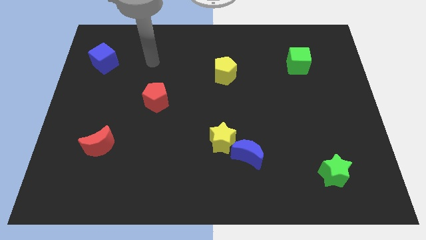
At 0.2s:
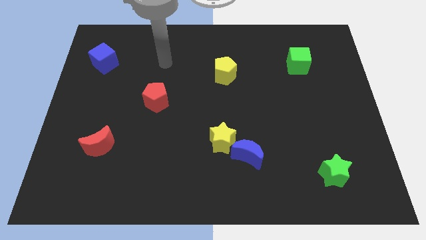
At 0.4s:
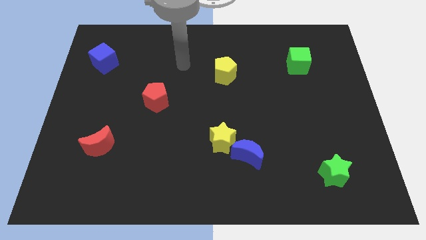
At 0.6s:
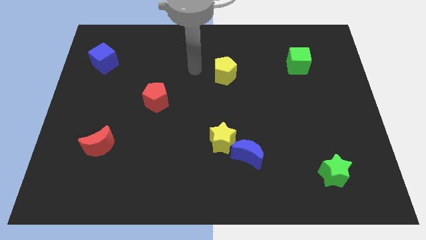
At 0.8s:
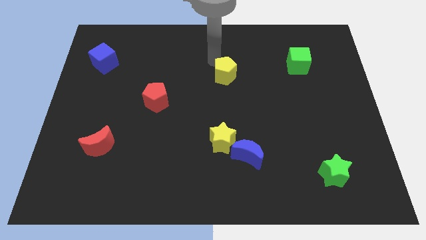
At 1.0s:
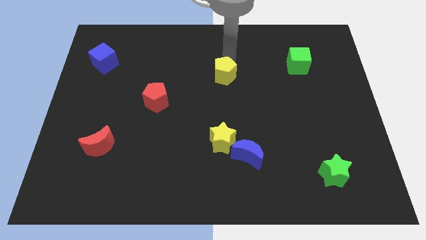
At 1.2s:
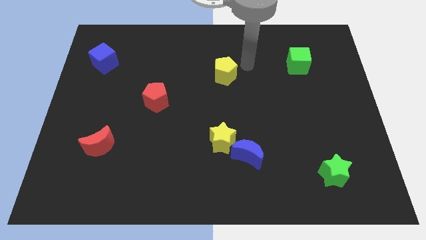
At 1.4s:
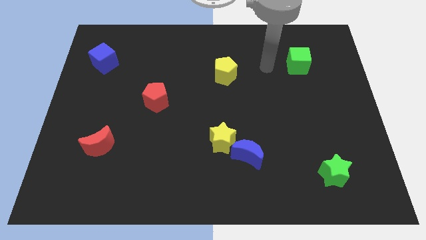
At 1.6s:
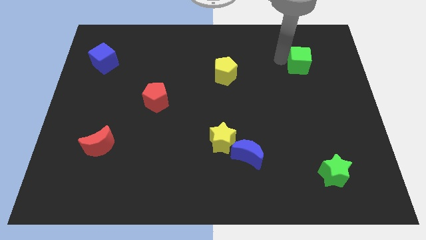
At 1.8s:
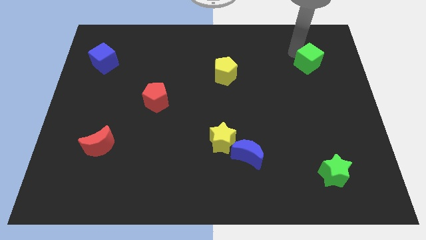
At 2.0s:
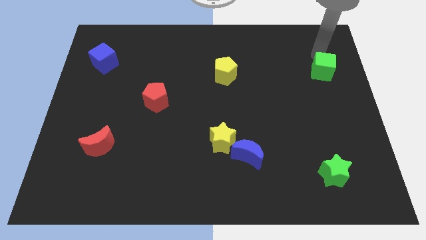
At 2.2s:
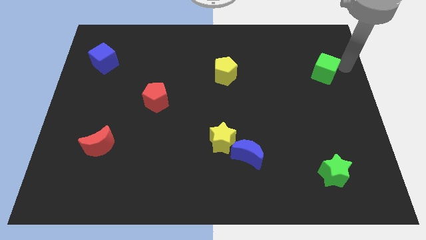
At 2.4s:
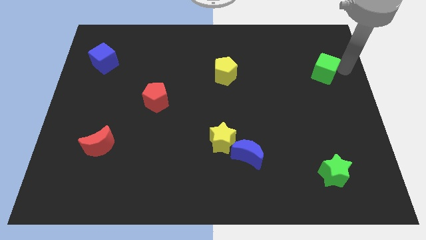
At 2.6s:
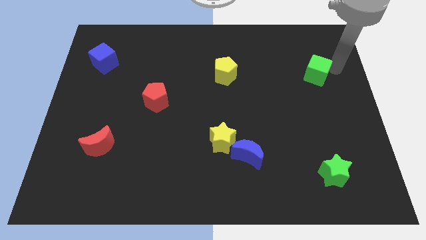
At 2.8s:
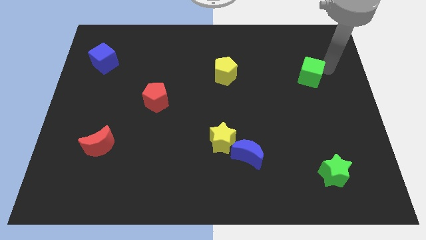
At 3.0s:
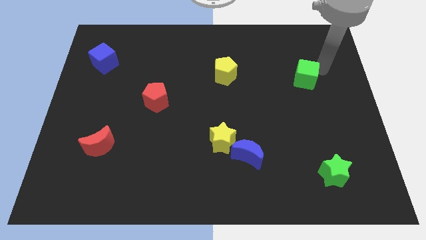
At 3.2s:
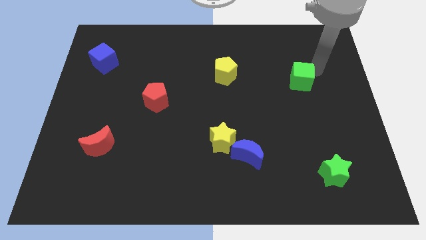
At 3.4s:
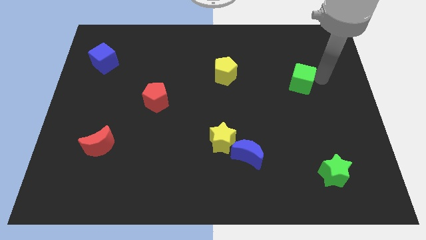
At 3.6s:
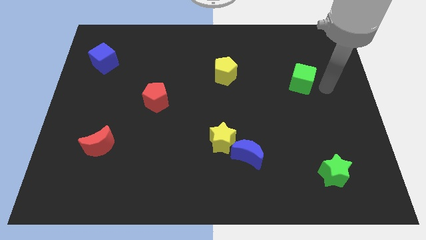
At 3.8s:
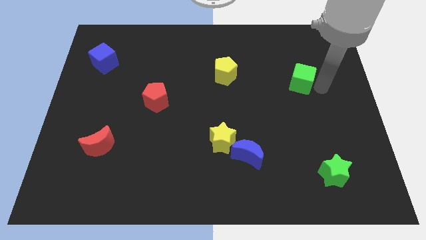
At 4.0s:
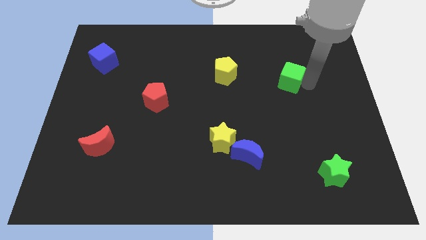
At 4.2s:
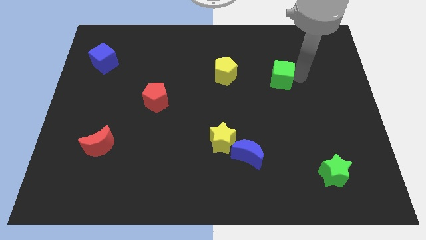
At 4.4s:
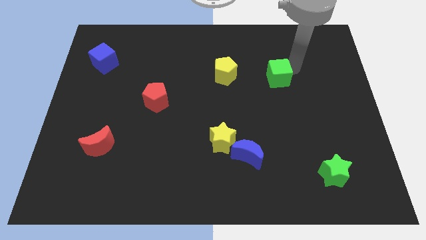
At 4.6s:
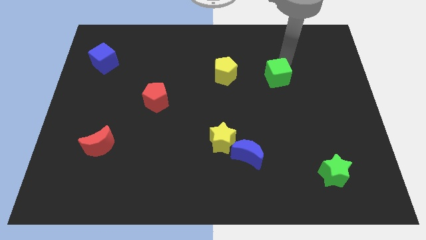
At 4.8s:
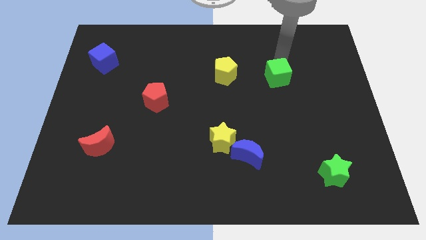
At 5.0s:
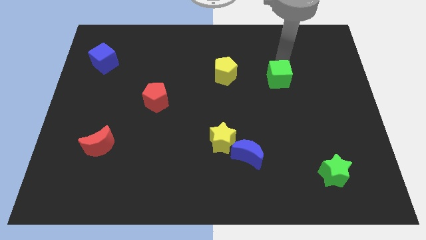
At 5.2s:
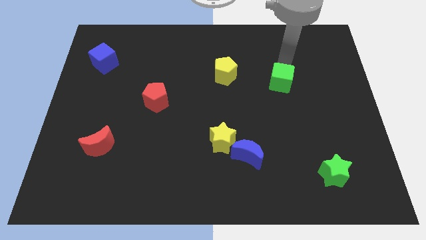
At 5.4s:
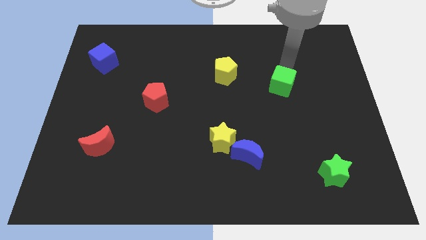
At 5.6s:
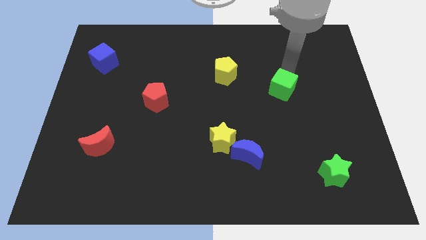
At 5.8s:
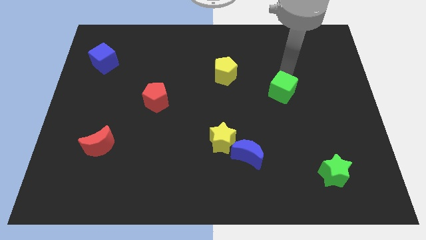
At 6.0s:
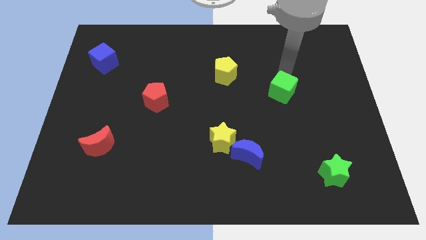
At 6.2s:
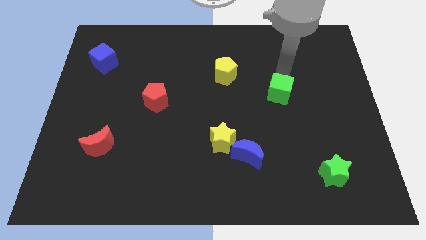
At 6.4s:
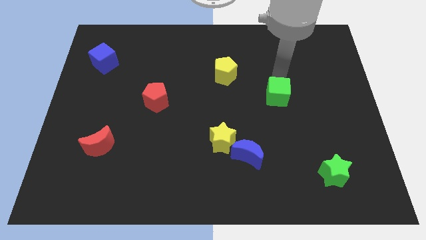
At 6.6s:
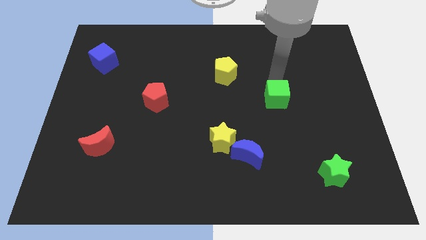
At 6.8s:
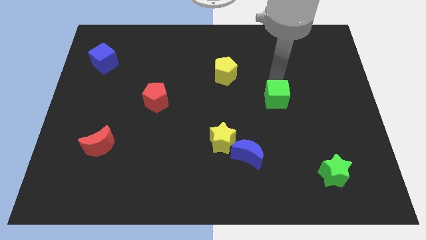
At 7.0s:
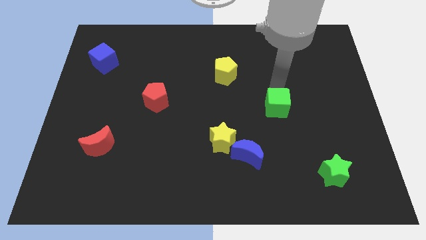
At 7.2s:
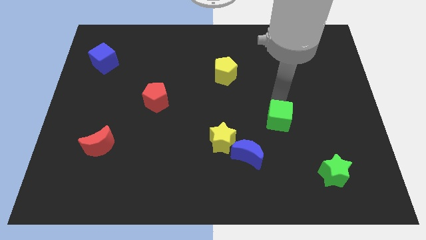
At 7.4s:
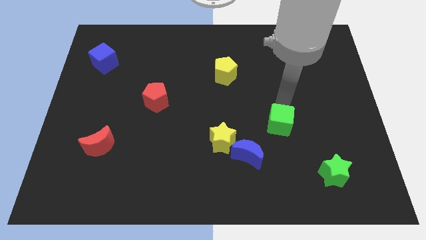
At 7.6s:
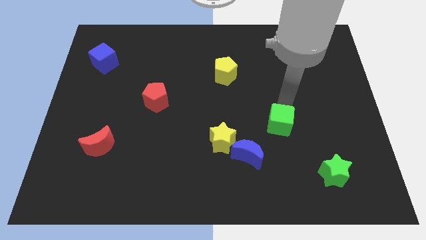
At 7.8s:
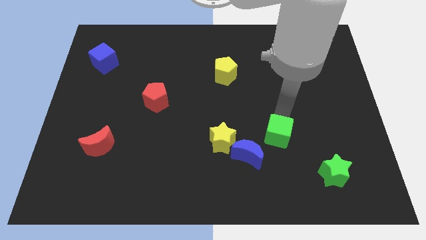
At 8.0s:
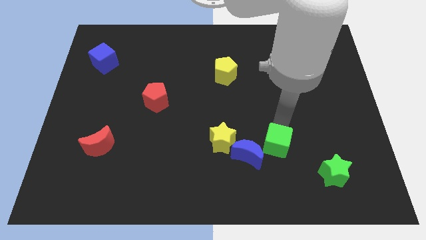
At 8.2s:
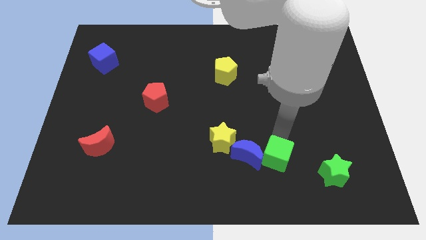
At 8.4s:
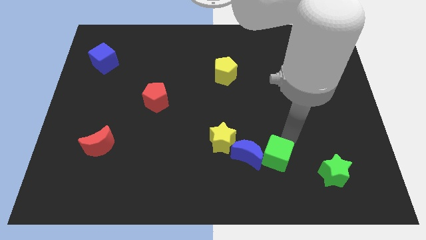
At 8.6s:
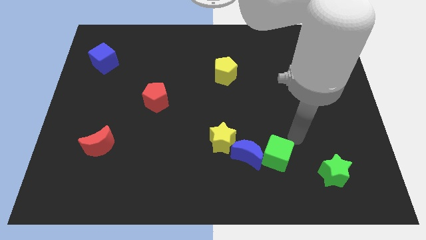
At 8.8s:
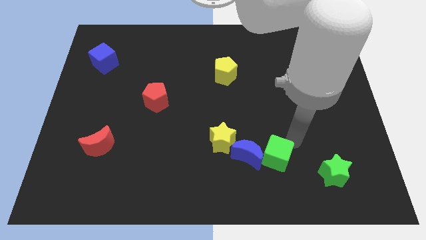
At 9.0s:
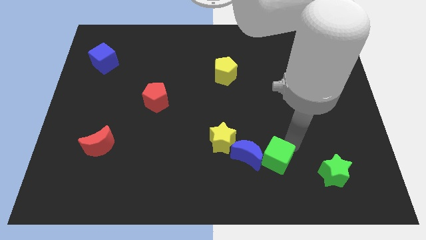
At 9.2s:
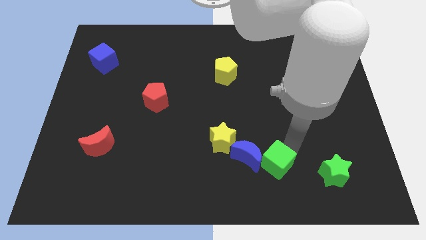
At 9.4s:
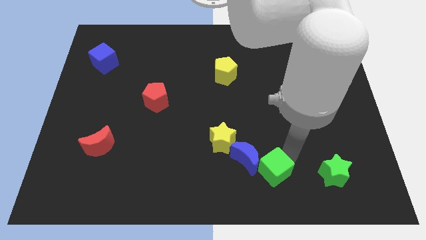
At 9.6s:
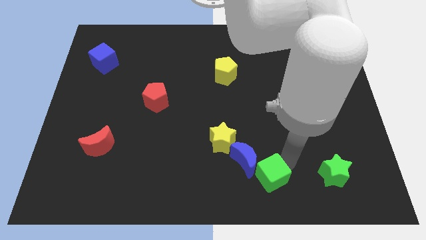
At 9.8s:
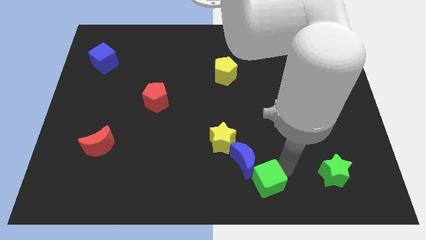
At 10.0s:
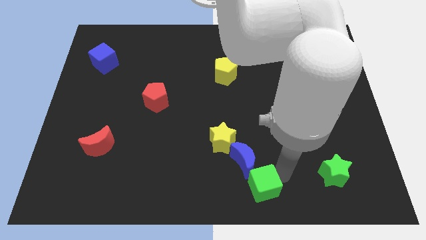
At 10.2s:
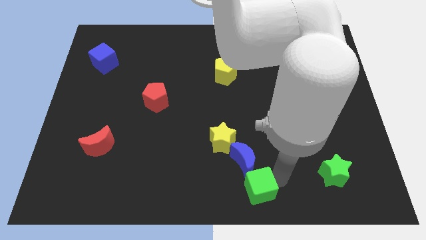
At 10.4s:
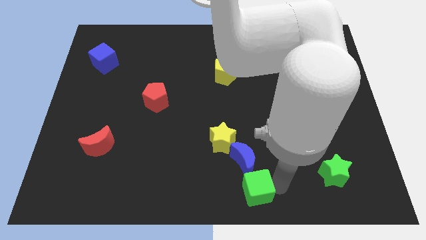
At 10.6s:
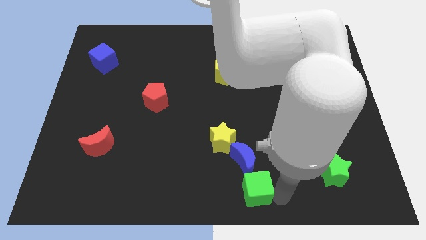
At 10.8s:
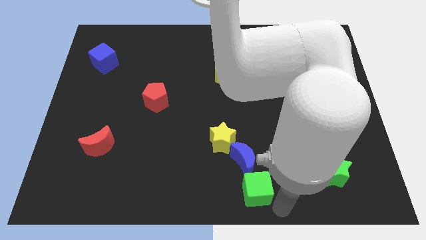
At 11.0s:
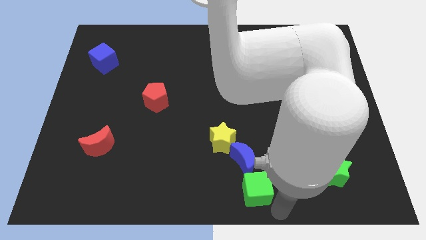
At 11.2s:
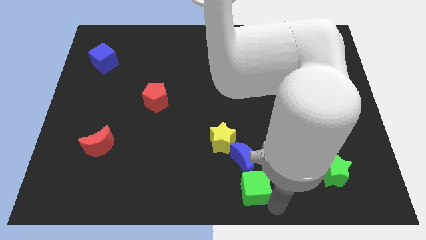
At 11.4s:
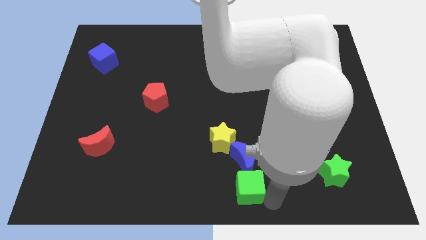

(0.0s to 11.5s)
move the green cube to the bottom left of the blue moon

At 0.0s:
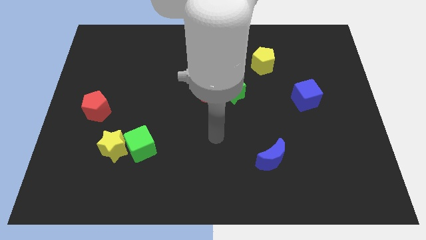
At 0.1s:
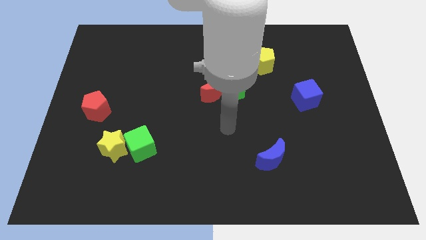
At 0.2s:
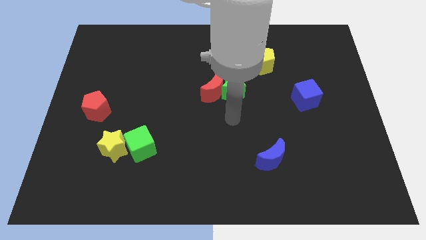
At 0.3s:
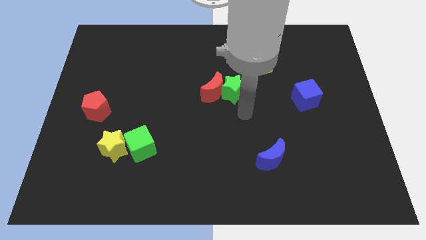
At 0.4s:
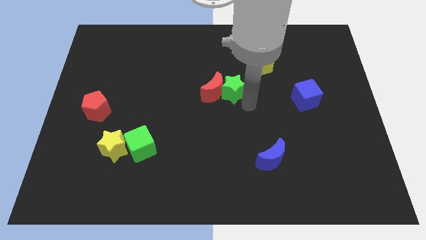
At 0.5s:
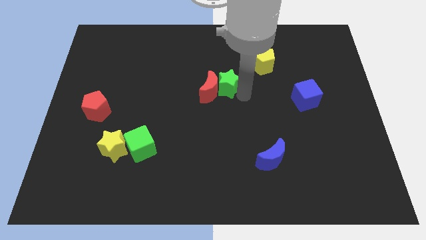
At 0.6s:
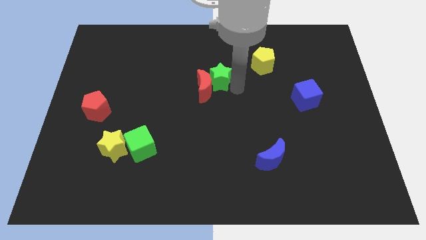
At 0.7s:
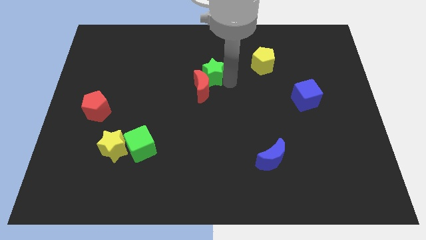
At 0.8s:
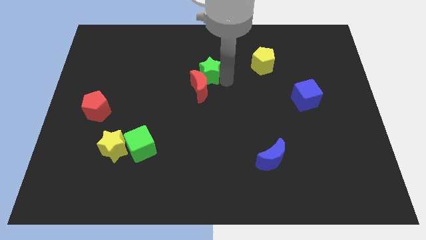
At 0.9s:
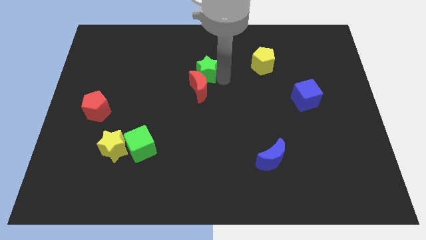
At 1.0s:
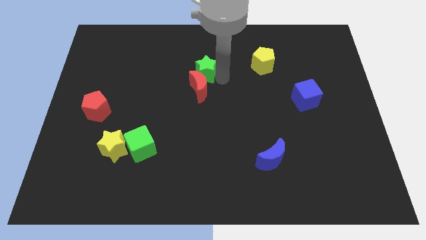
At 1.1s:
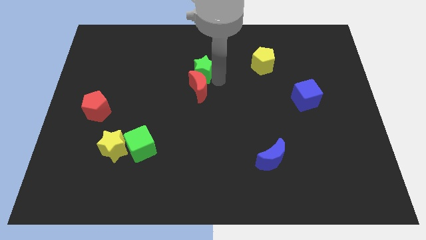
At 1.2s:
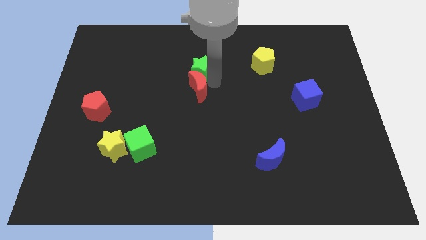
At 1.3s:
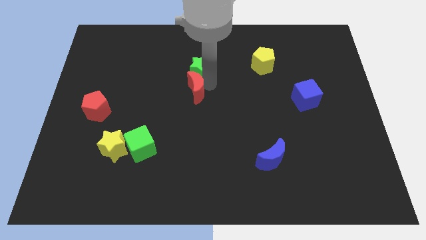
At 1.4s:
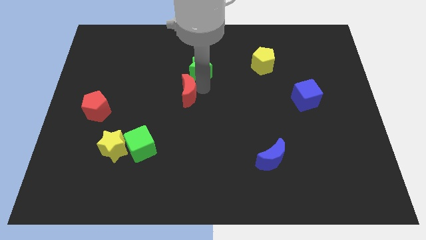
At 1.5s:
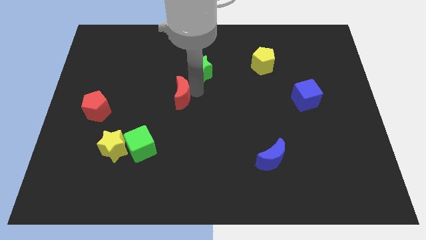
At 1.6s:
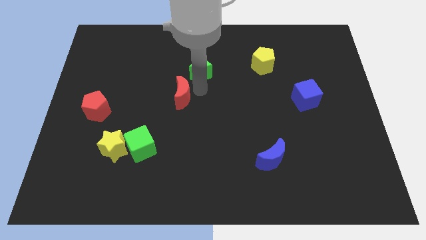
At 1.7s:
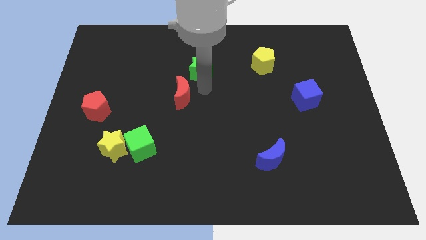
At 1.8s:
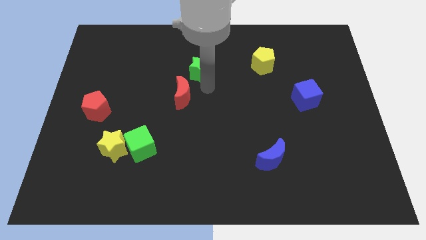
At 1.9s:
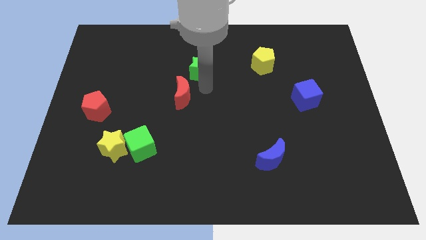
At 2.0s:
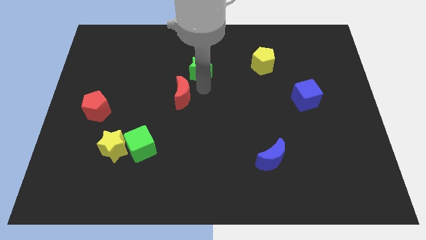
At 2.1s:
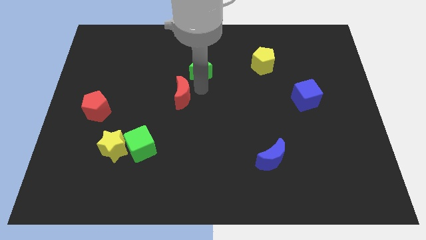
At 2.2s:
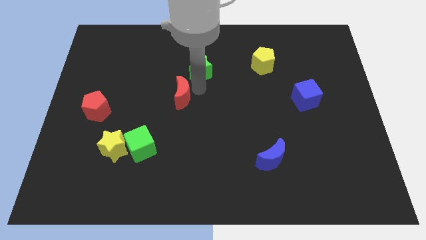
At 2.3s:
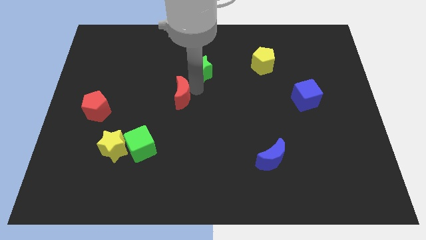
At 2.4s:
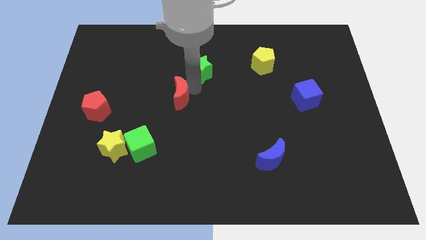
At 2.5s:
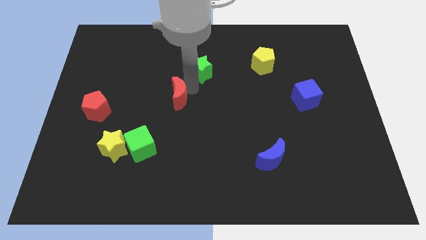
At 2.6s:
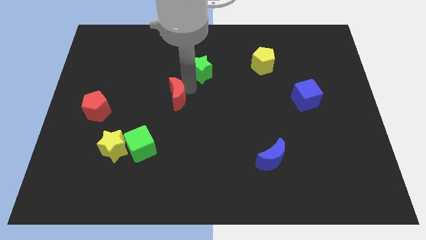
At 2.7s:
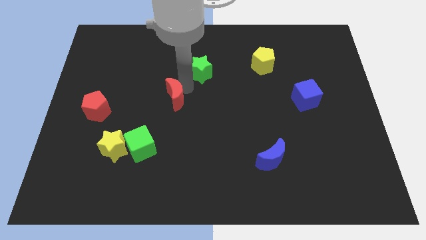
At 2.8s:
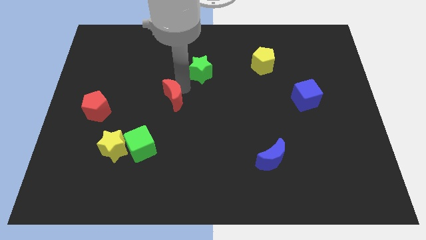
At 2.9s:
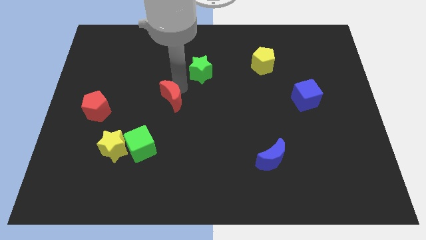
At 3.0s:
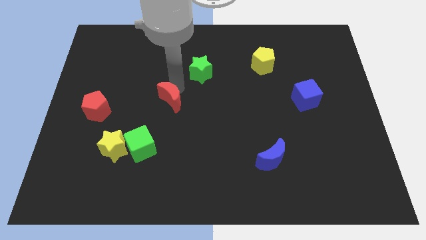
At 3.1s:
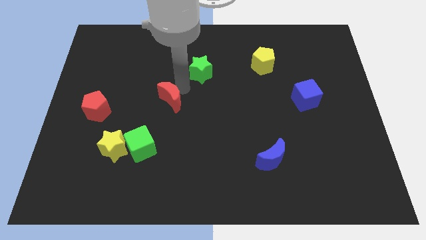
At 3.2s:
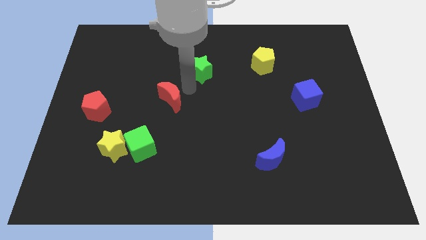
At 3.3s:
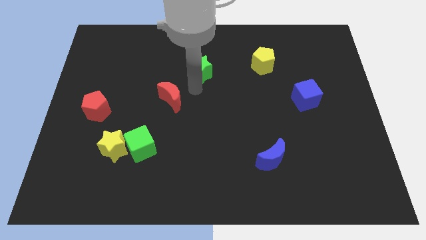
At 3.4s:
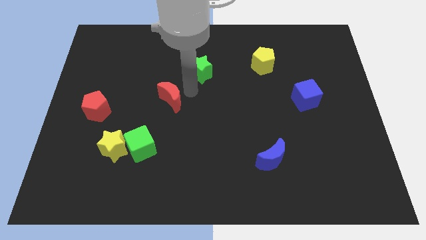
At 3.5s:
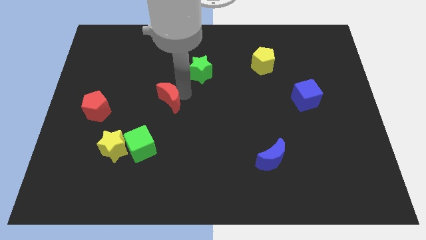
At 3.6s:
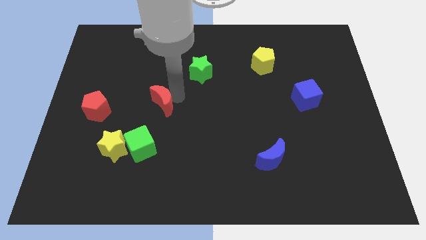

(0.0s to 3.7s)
put the red moon above the green cube
